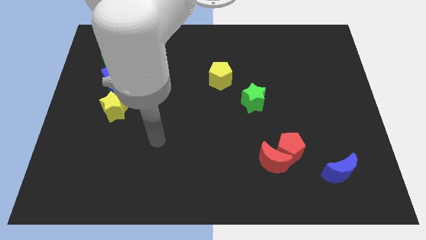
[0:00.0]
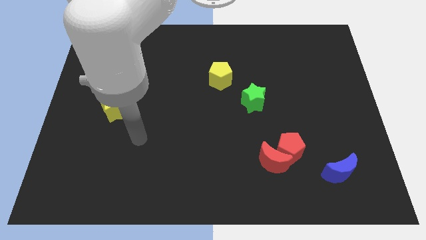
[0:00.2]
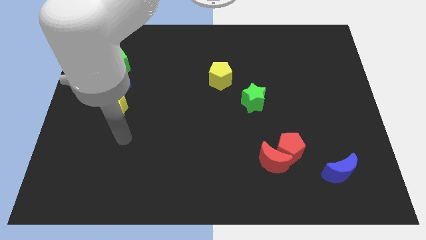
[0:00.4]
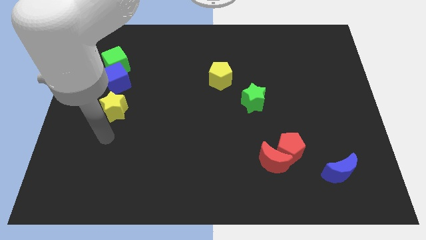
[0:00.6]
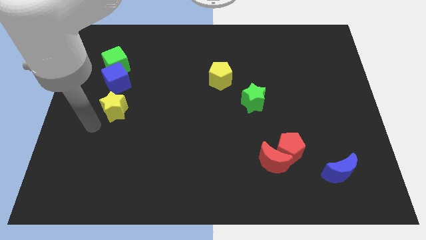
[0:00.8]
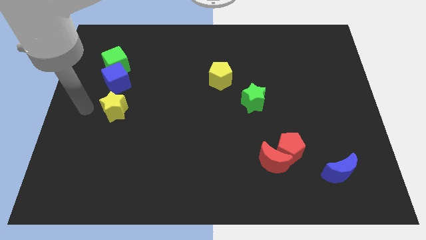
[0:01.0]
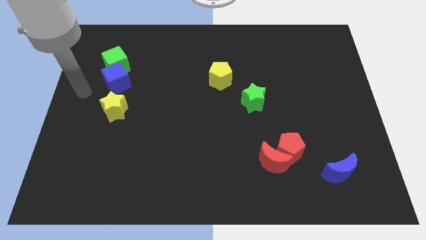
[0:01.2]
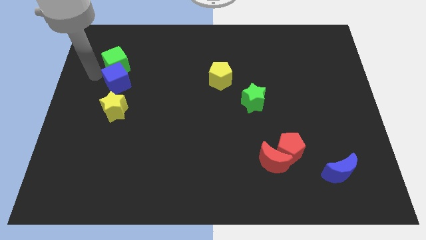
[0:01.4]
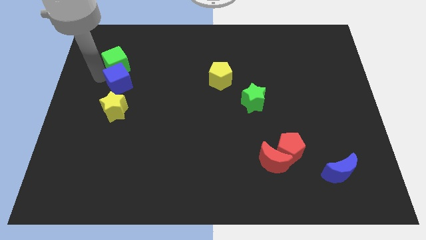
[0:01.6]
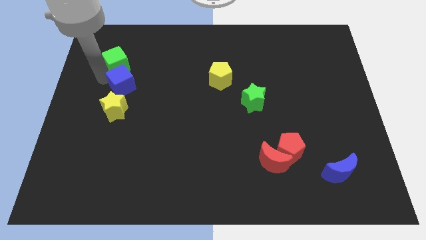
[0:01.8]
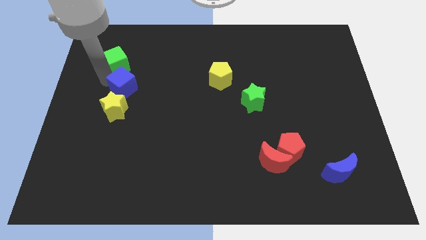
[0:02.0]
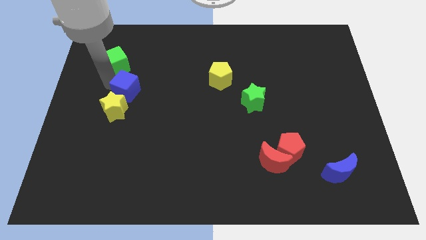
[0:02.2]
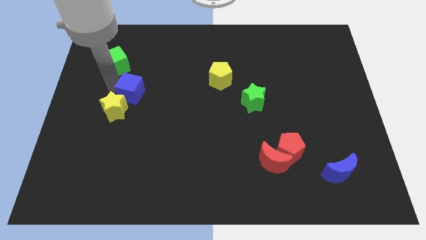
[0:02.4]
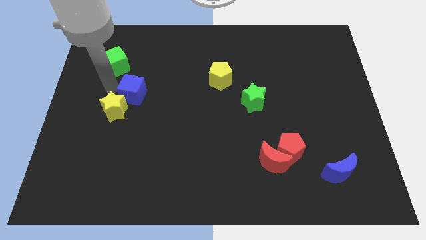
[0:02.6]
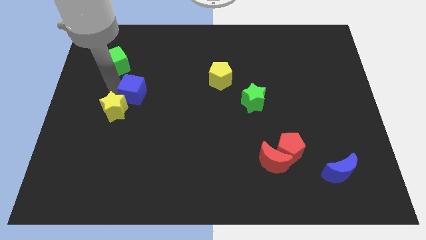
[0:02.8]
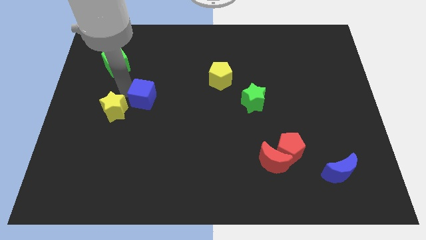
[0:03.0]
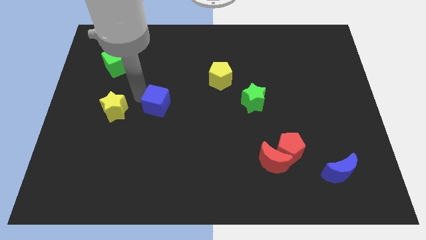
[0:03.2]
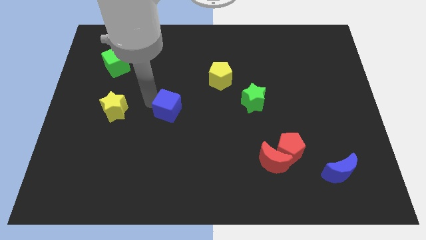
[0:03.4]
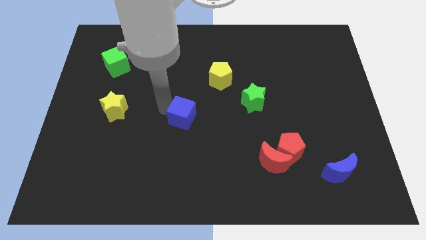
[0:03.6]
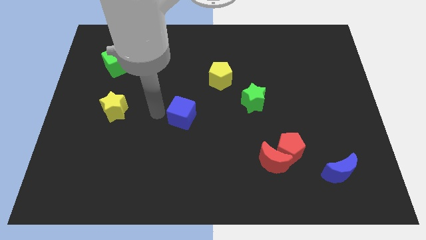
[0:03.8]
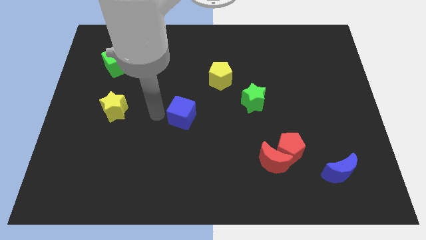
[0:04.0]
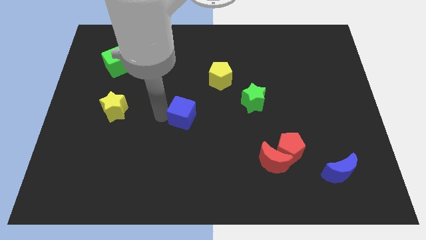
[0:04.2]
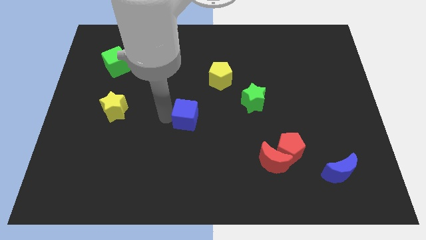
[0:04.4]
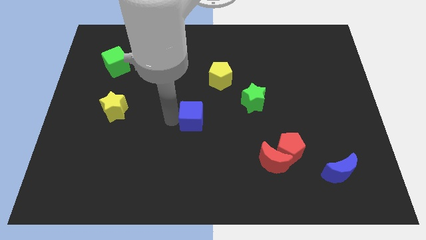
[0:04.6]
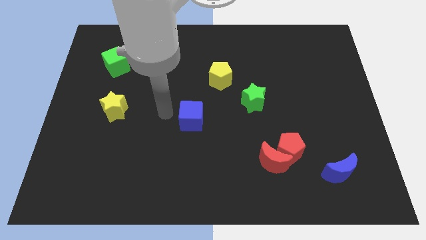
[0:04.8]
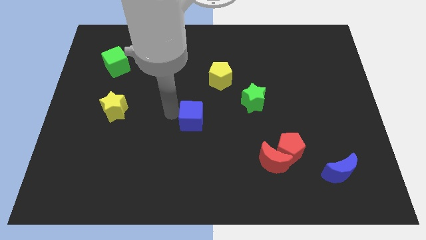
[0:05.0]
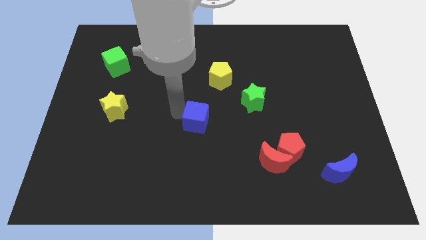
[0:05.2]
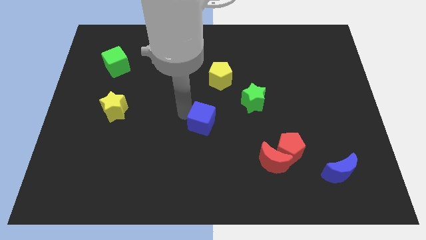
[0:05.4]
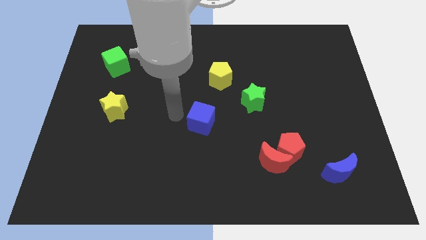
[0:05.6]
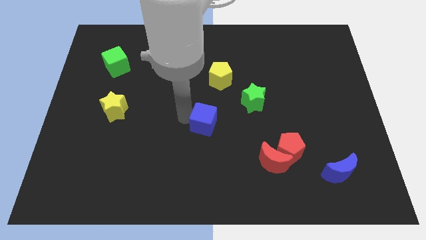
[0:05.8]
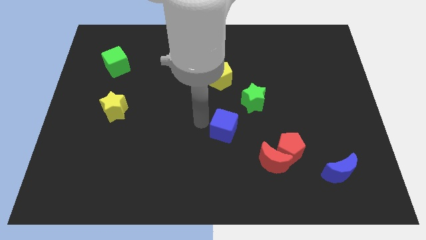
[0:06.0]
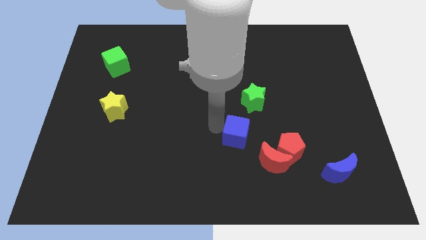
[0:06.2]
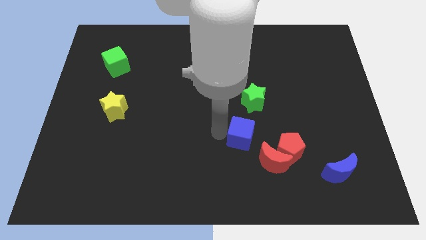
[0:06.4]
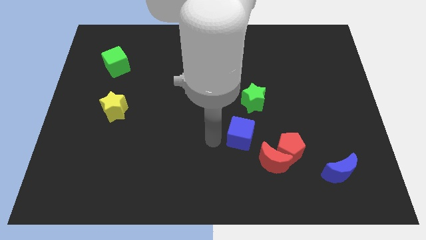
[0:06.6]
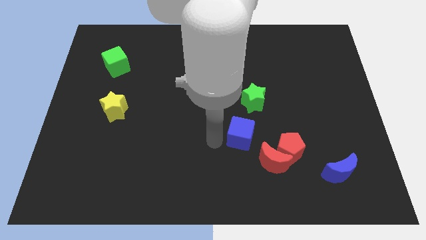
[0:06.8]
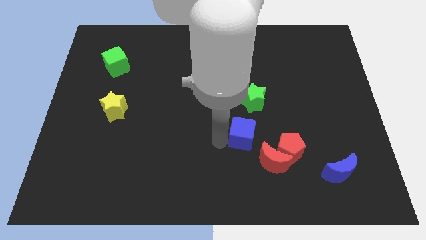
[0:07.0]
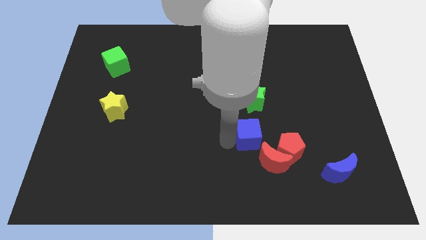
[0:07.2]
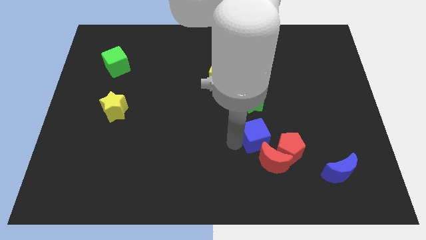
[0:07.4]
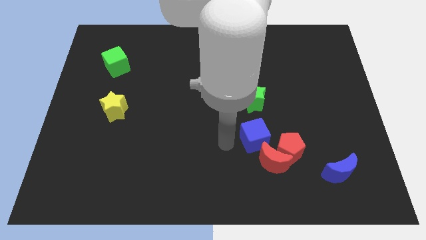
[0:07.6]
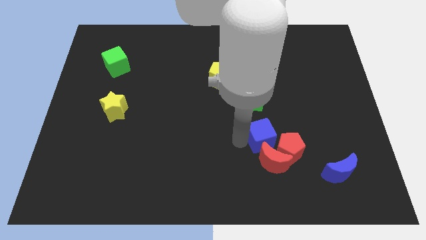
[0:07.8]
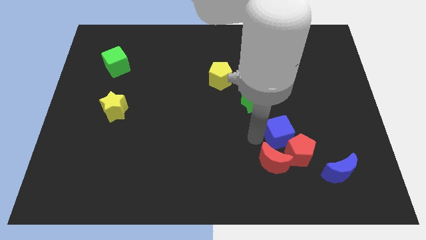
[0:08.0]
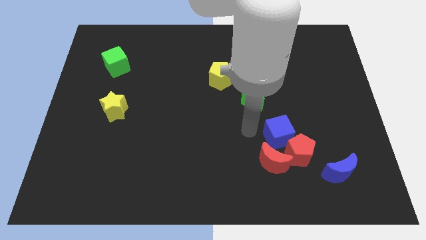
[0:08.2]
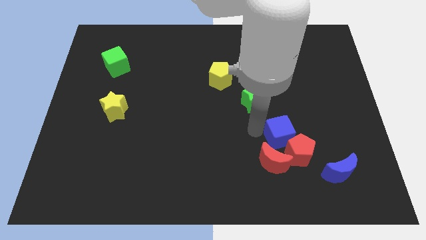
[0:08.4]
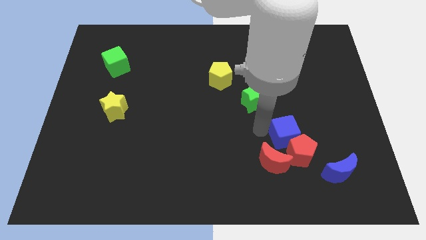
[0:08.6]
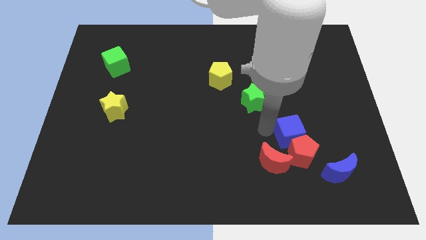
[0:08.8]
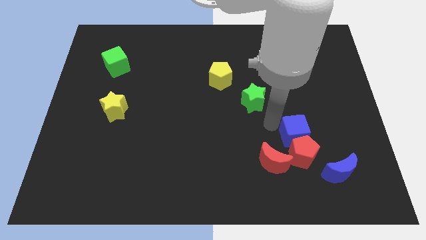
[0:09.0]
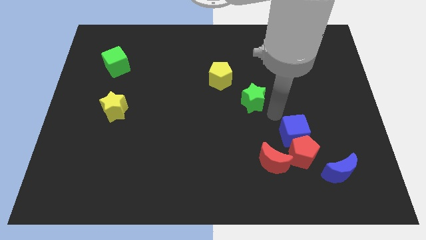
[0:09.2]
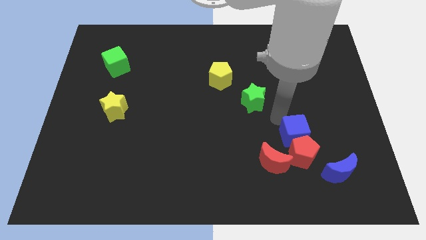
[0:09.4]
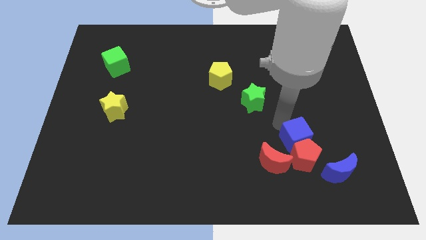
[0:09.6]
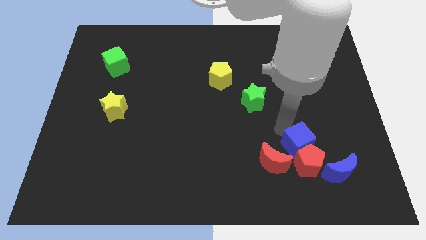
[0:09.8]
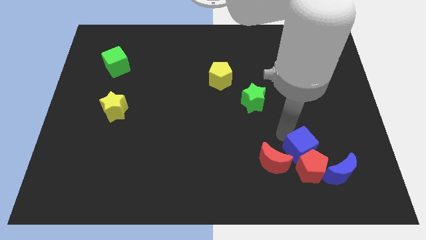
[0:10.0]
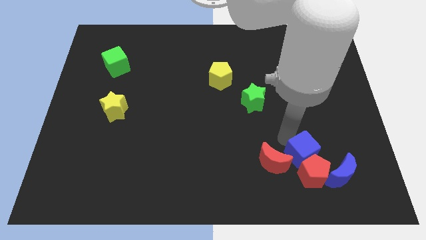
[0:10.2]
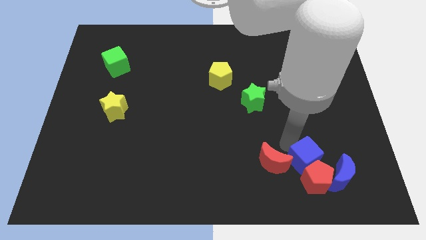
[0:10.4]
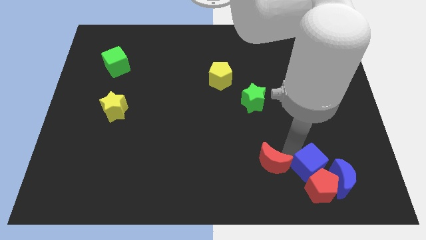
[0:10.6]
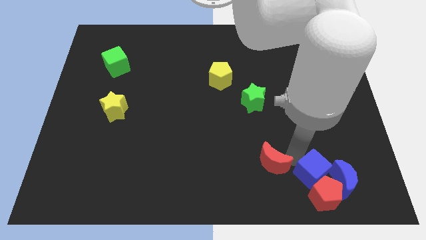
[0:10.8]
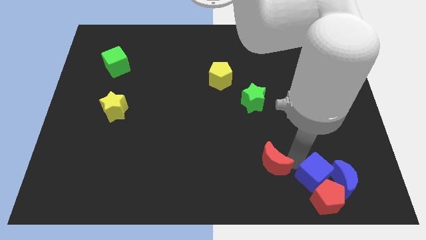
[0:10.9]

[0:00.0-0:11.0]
slide the blue cube to the blue moon

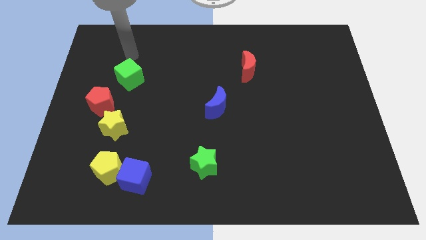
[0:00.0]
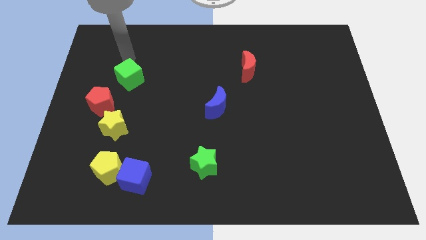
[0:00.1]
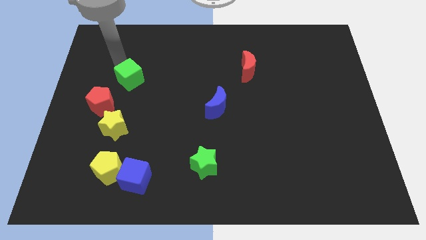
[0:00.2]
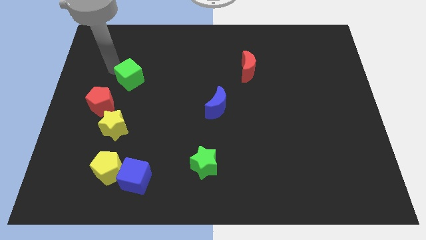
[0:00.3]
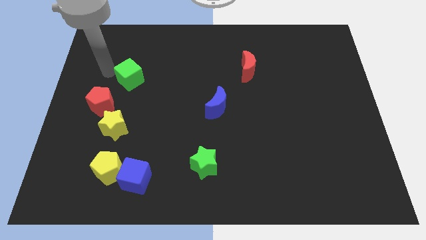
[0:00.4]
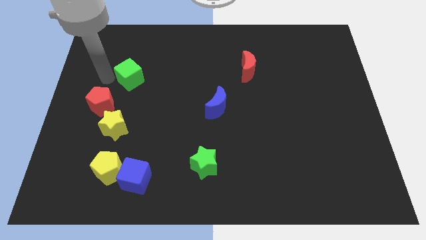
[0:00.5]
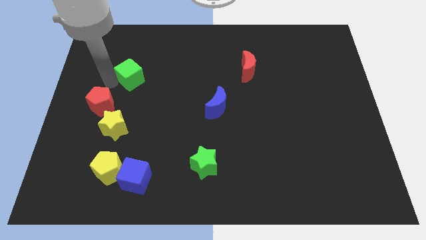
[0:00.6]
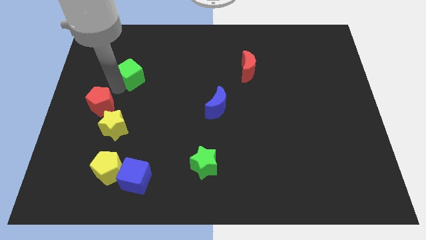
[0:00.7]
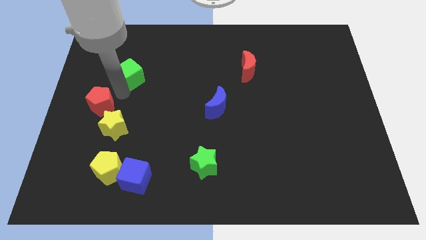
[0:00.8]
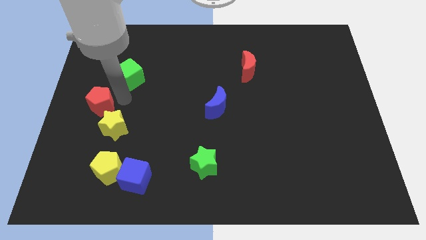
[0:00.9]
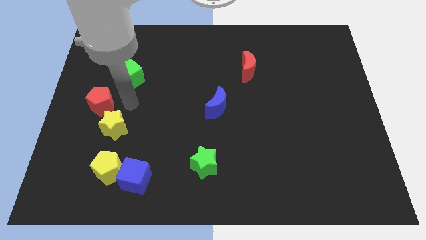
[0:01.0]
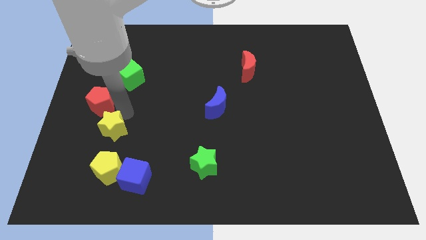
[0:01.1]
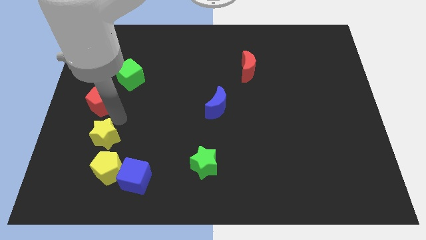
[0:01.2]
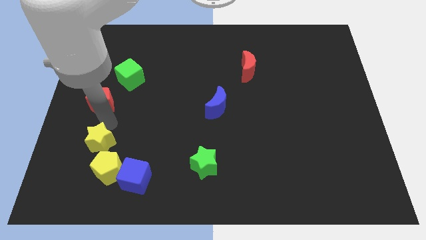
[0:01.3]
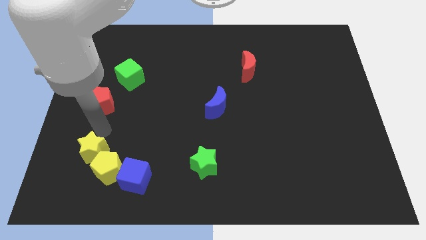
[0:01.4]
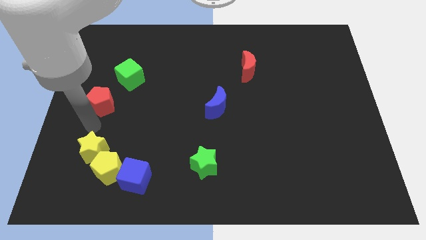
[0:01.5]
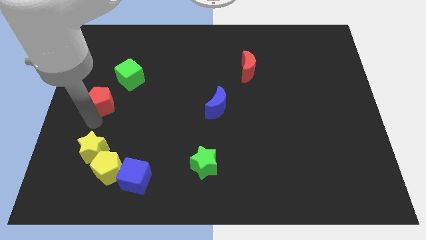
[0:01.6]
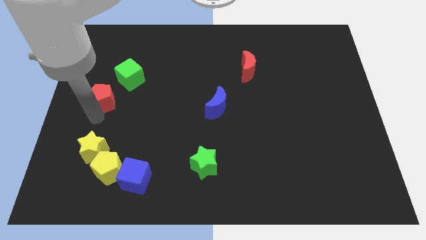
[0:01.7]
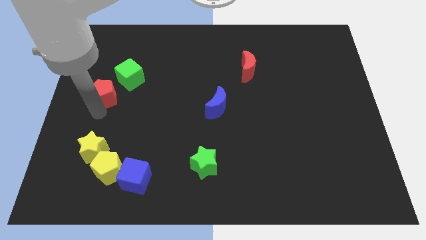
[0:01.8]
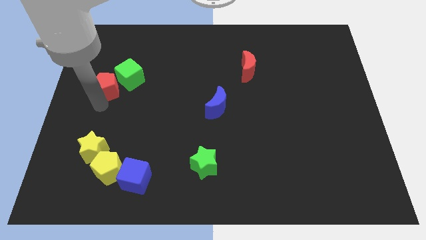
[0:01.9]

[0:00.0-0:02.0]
put the red pentagon close to the green cube
